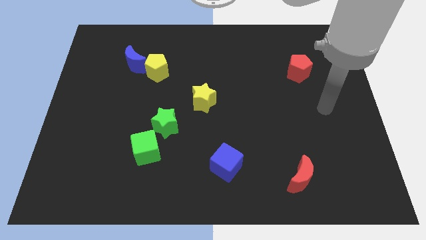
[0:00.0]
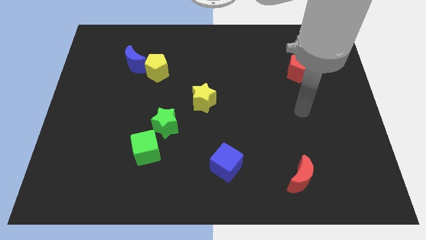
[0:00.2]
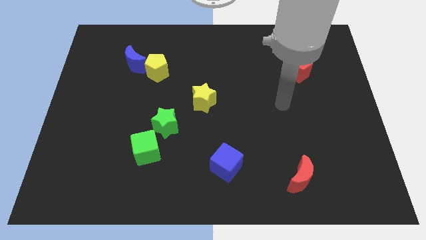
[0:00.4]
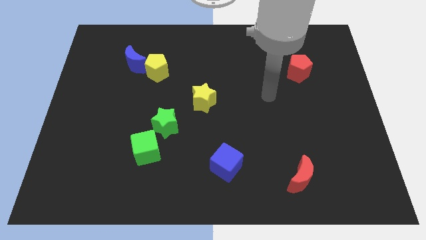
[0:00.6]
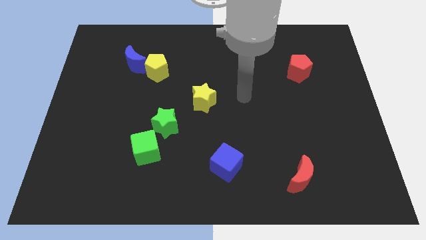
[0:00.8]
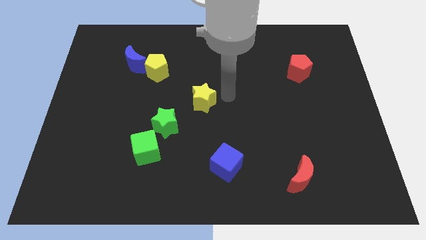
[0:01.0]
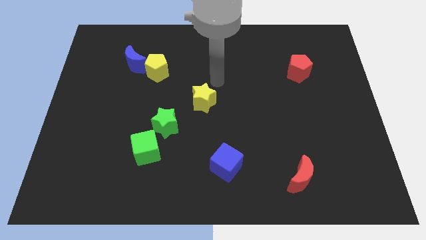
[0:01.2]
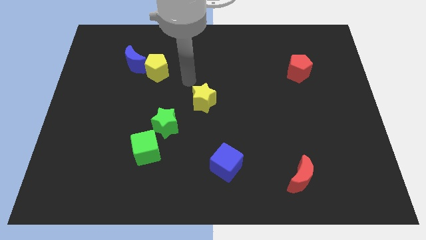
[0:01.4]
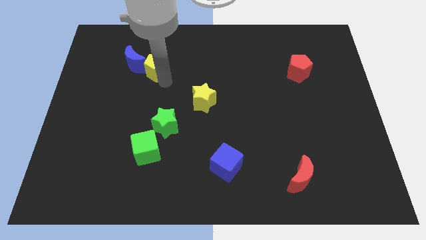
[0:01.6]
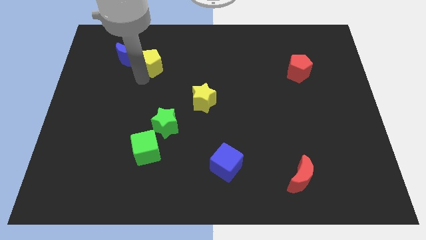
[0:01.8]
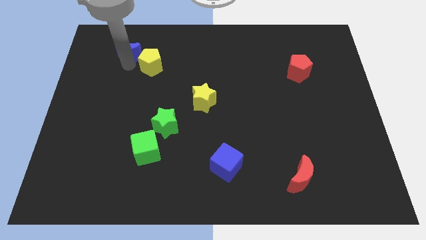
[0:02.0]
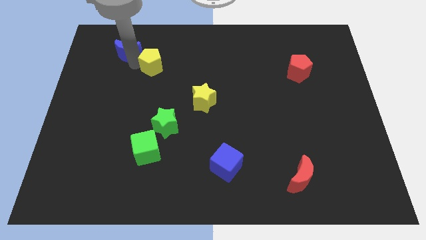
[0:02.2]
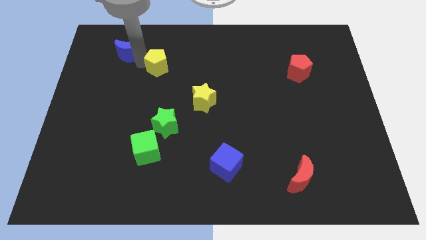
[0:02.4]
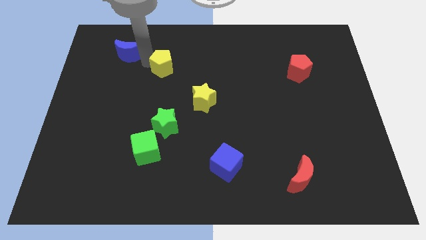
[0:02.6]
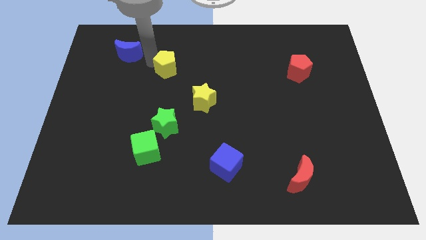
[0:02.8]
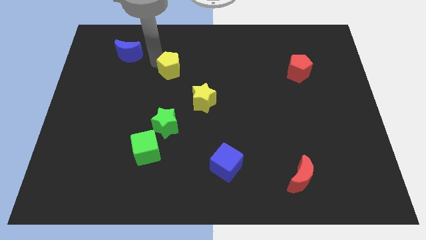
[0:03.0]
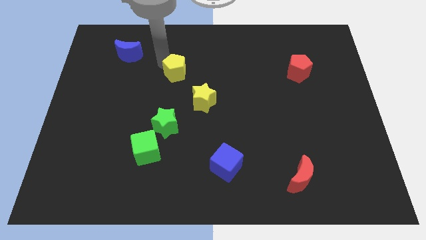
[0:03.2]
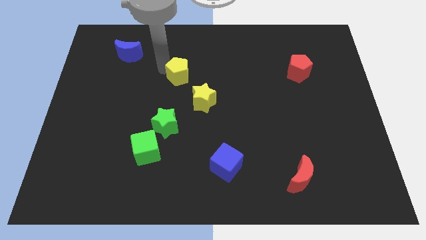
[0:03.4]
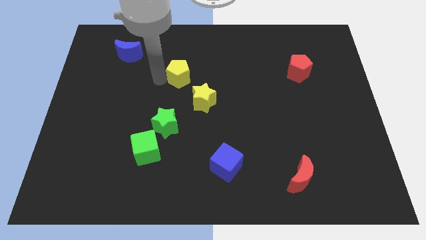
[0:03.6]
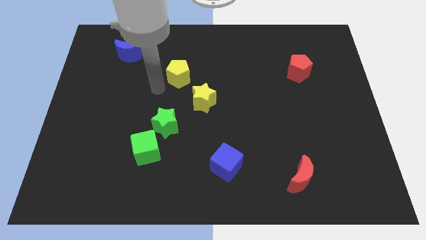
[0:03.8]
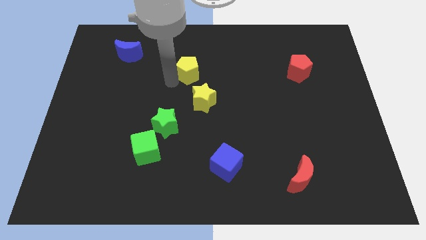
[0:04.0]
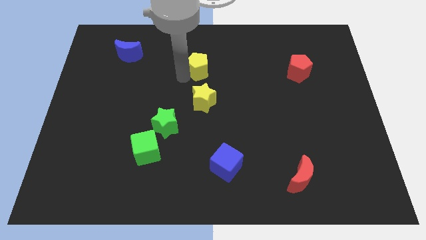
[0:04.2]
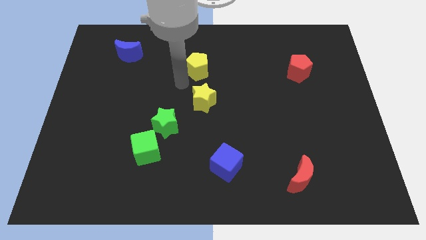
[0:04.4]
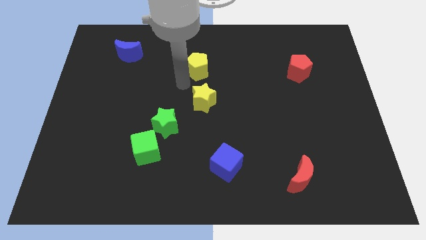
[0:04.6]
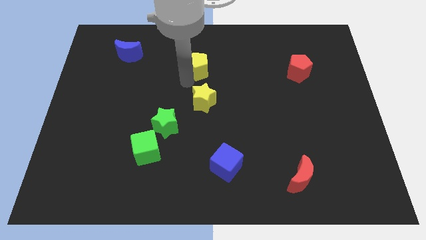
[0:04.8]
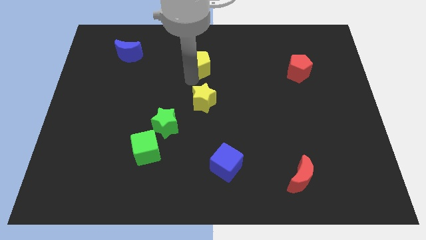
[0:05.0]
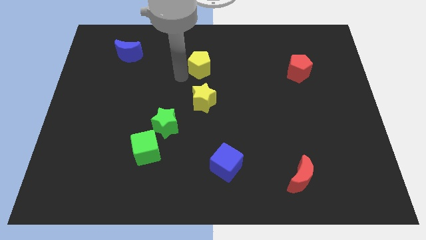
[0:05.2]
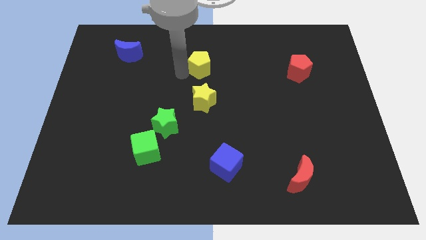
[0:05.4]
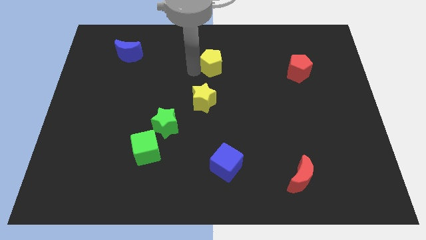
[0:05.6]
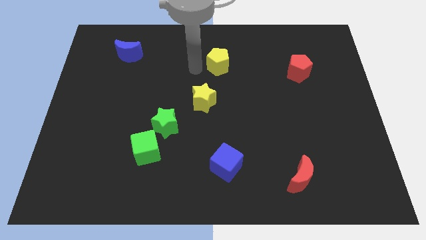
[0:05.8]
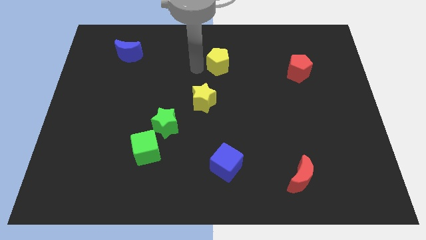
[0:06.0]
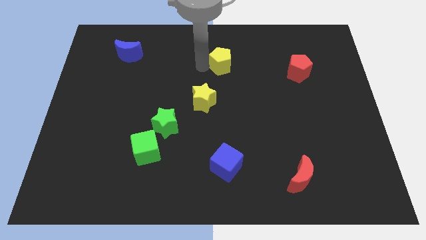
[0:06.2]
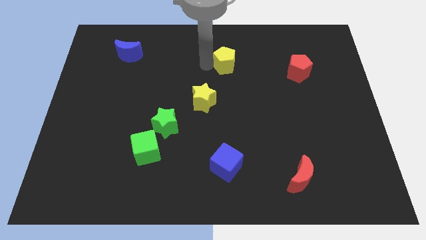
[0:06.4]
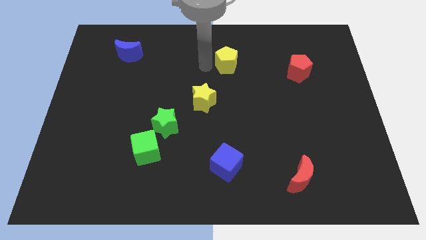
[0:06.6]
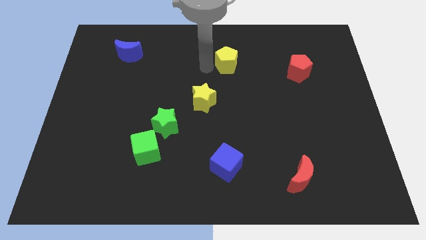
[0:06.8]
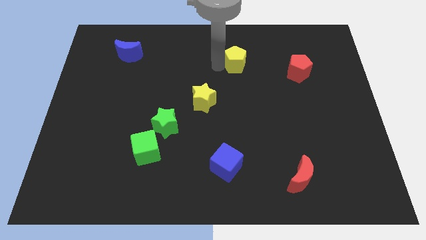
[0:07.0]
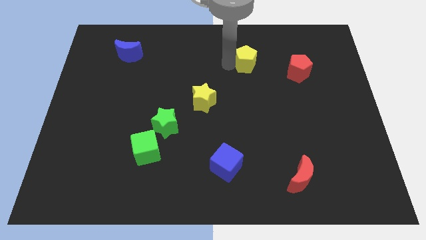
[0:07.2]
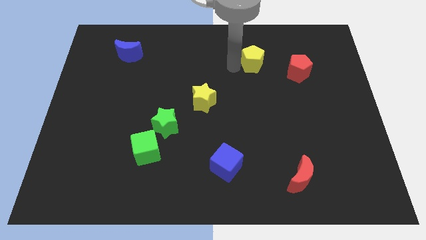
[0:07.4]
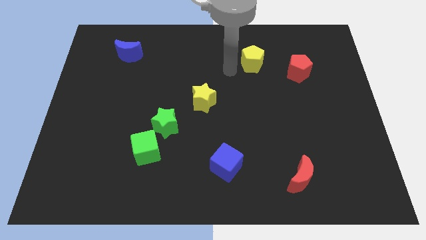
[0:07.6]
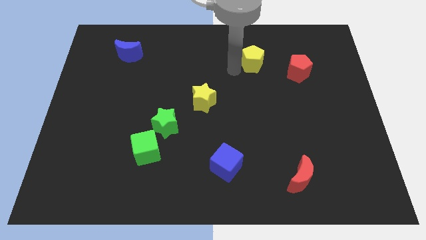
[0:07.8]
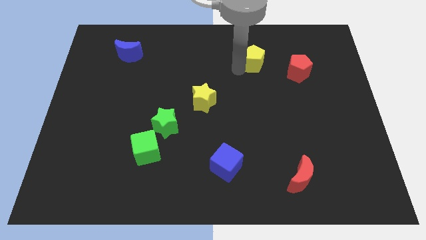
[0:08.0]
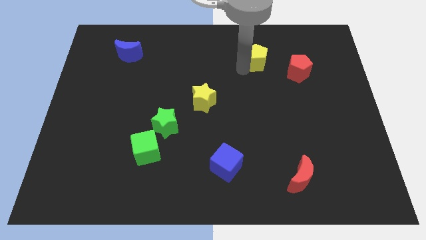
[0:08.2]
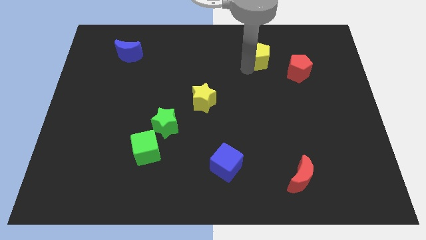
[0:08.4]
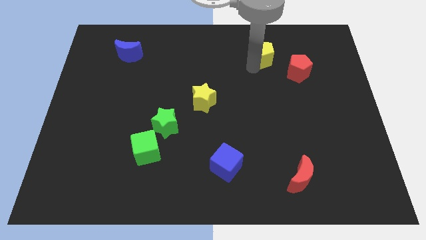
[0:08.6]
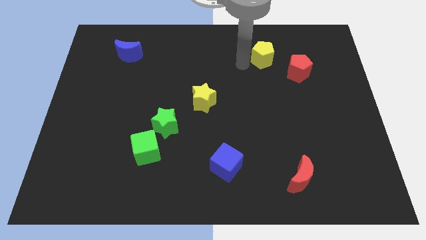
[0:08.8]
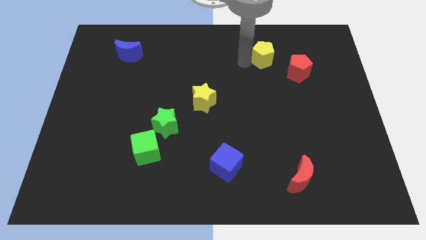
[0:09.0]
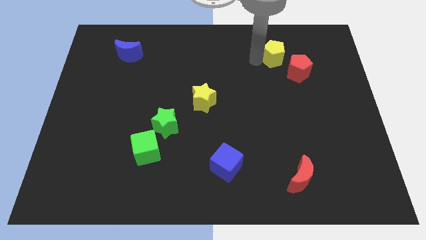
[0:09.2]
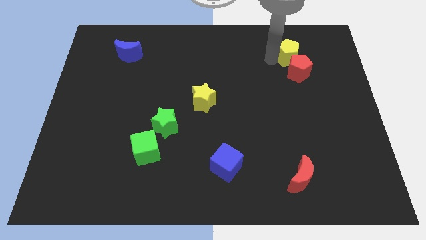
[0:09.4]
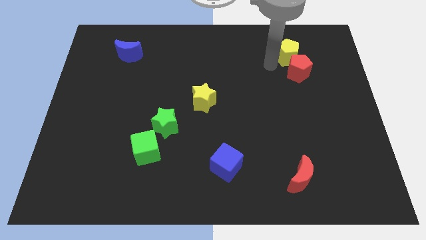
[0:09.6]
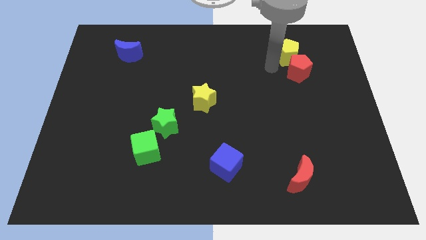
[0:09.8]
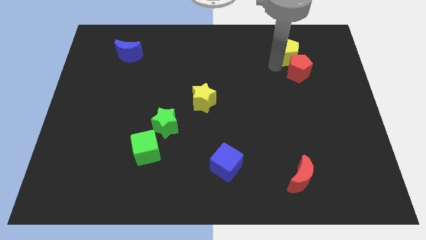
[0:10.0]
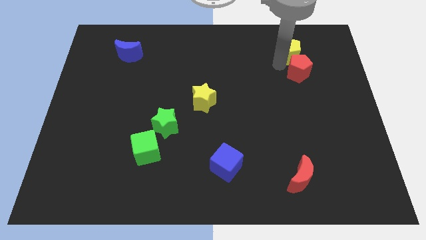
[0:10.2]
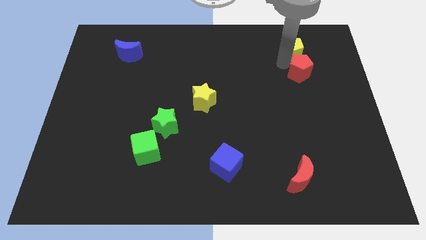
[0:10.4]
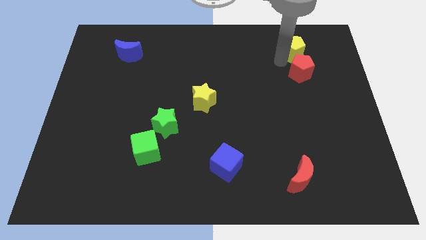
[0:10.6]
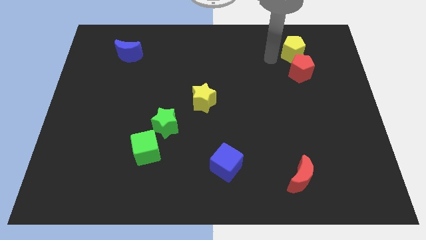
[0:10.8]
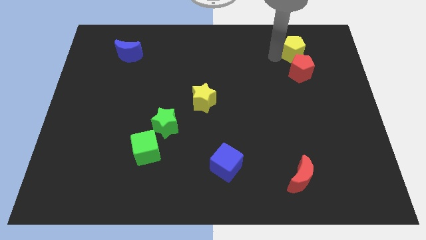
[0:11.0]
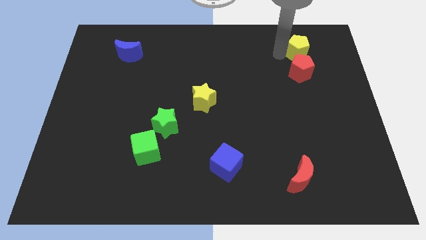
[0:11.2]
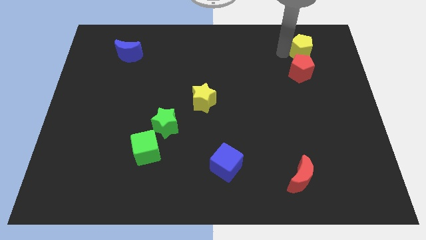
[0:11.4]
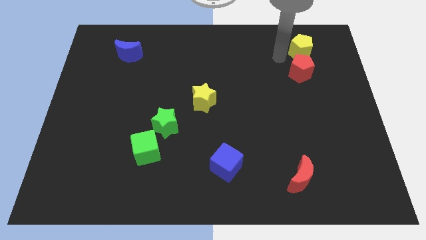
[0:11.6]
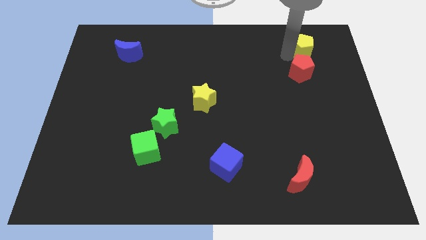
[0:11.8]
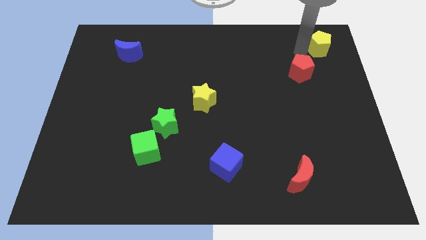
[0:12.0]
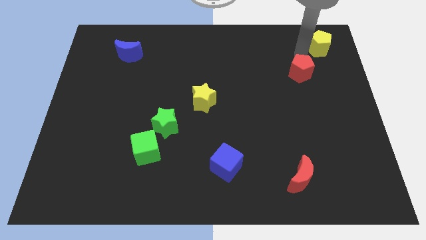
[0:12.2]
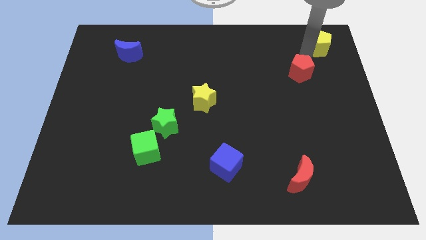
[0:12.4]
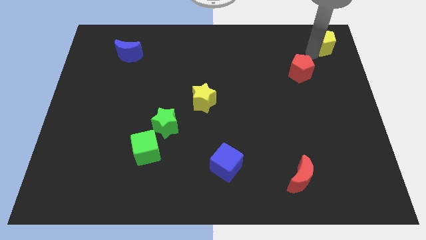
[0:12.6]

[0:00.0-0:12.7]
push the yellow pentagon to the top right of the board
